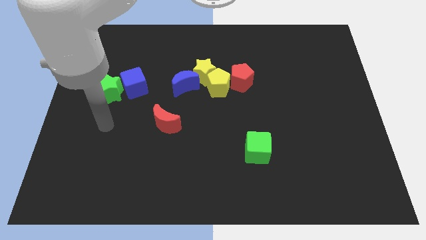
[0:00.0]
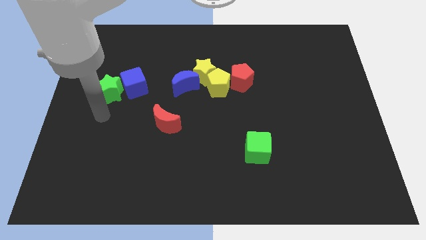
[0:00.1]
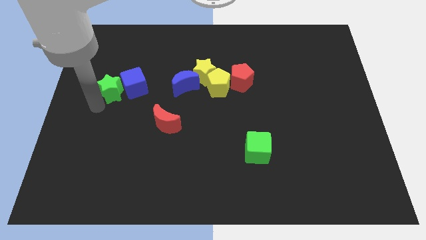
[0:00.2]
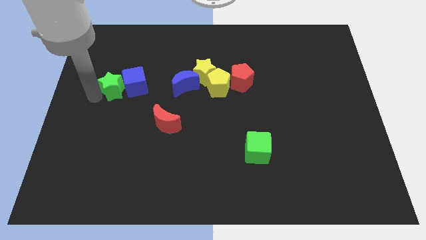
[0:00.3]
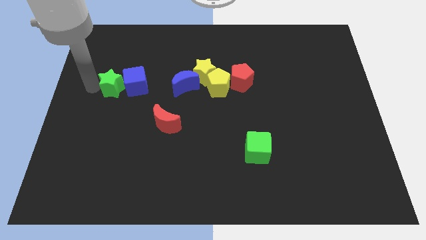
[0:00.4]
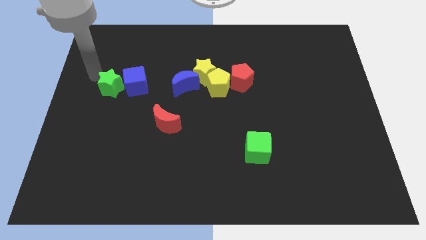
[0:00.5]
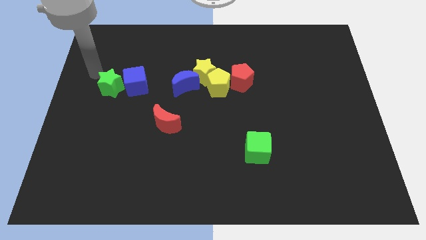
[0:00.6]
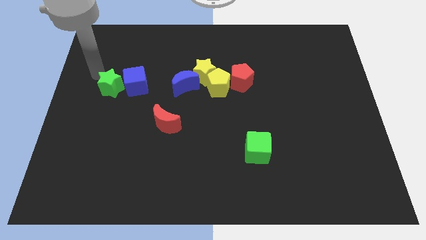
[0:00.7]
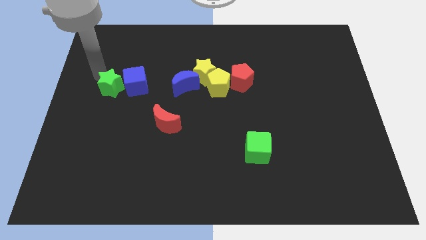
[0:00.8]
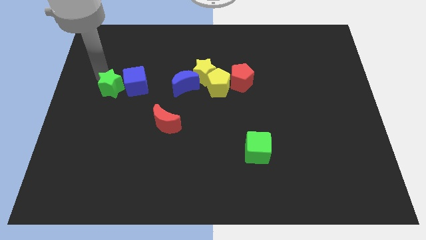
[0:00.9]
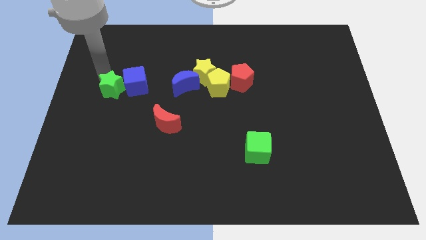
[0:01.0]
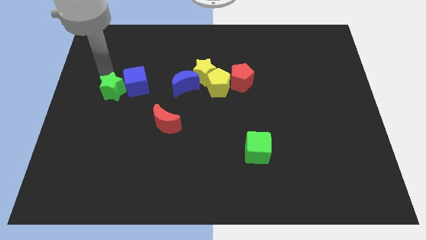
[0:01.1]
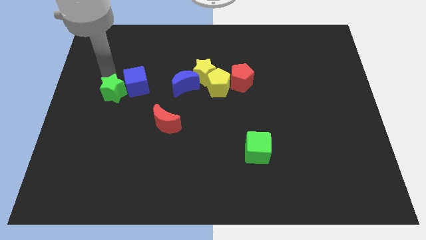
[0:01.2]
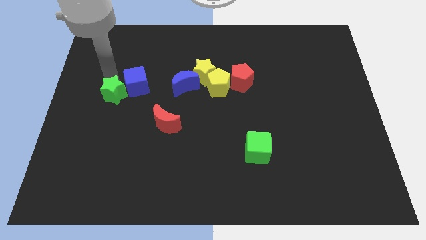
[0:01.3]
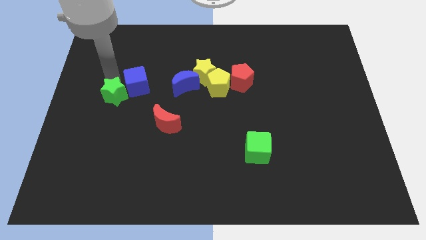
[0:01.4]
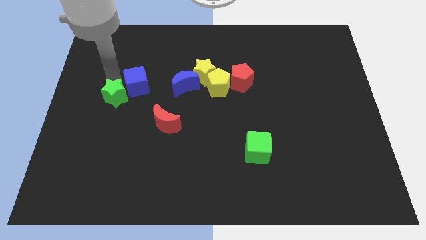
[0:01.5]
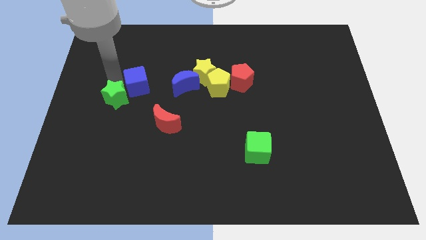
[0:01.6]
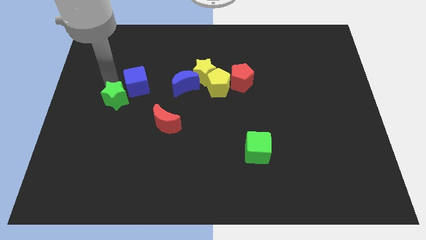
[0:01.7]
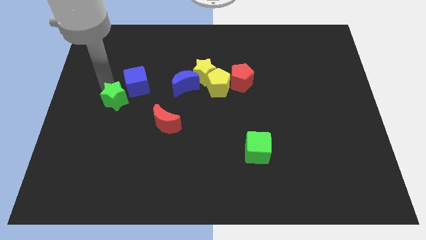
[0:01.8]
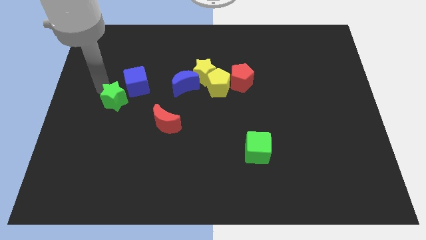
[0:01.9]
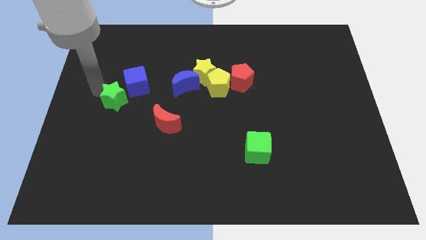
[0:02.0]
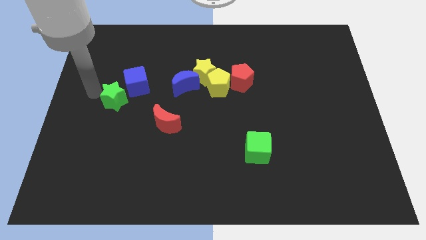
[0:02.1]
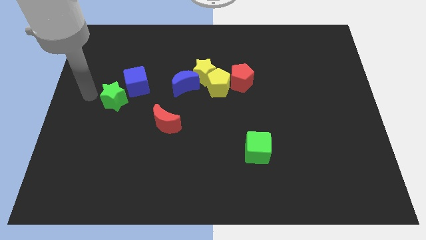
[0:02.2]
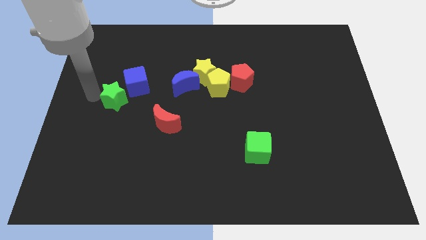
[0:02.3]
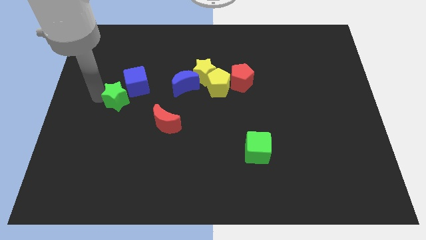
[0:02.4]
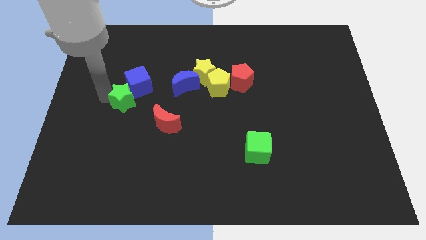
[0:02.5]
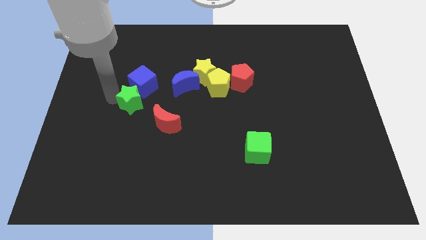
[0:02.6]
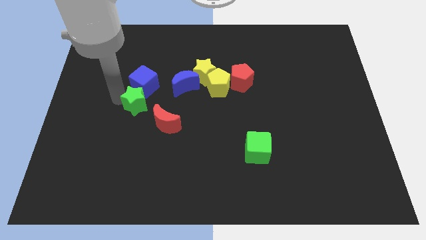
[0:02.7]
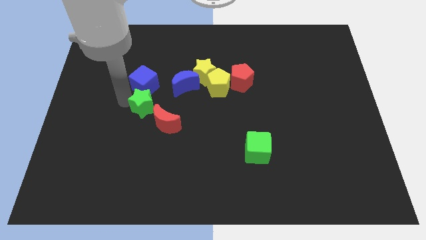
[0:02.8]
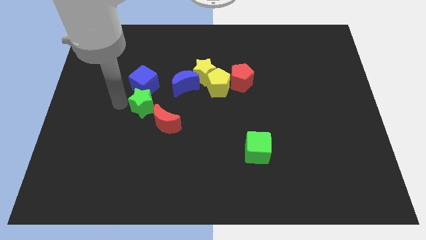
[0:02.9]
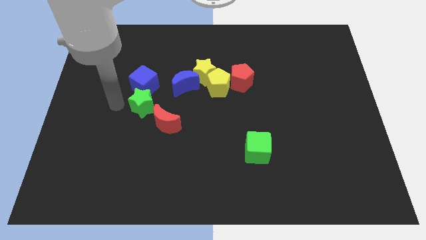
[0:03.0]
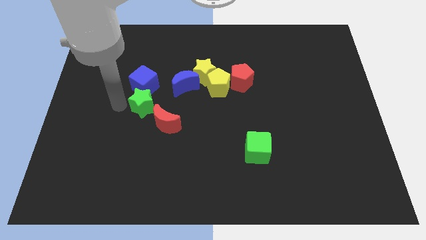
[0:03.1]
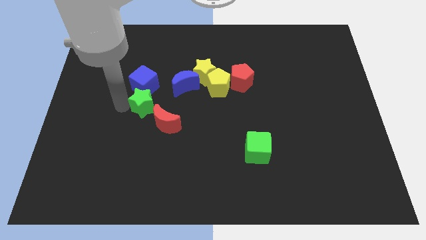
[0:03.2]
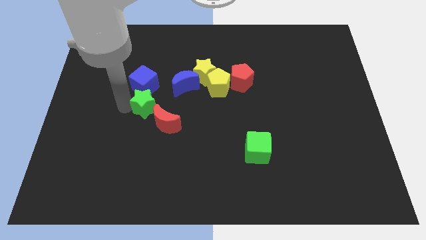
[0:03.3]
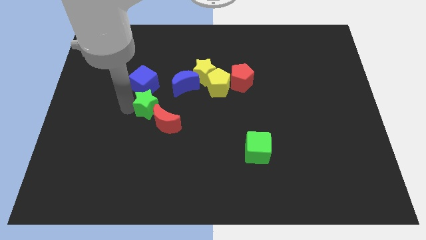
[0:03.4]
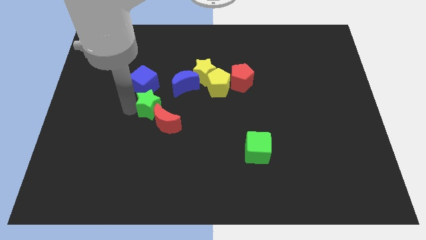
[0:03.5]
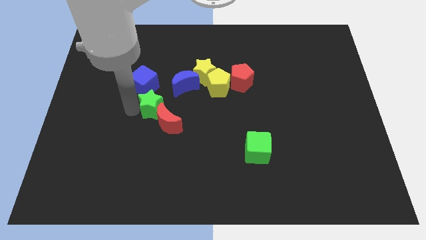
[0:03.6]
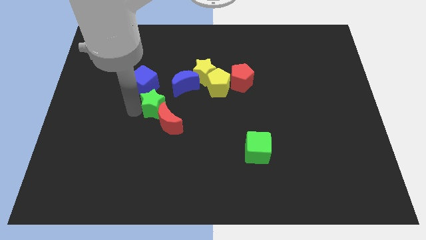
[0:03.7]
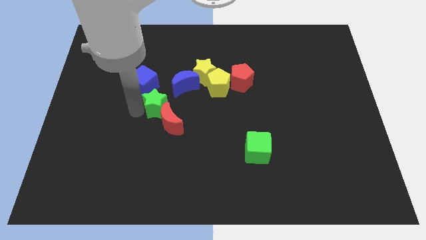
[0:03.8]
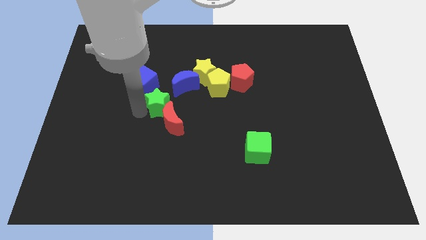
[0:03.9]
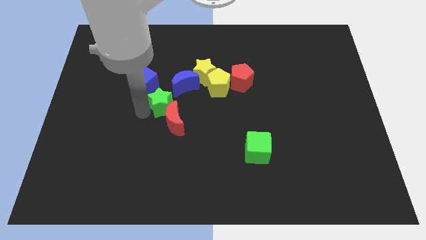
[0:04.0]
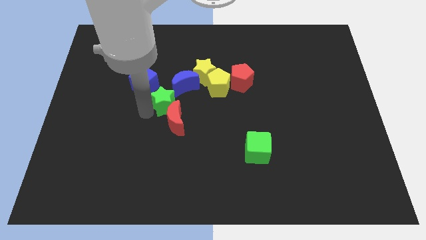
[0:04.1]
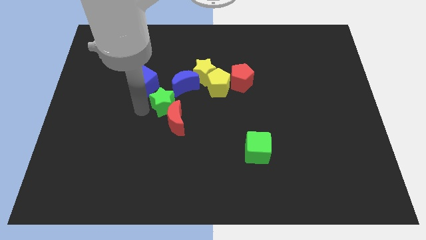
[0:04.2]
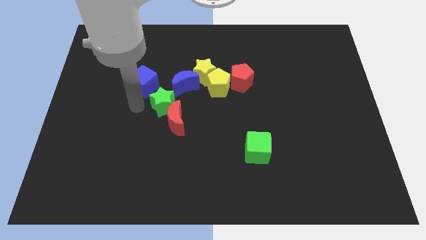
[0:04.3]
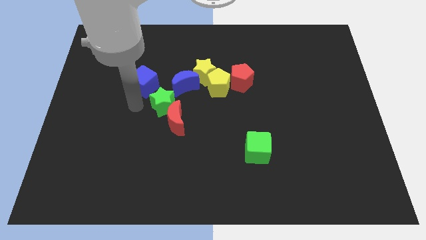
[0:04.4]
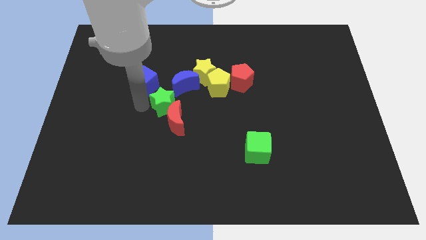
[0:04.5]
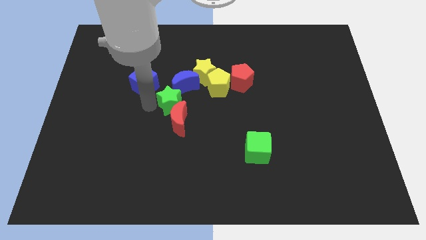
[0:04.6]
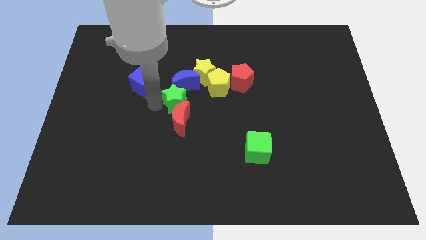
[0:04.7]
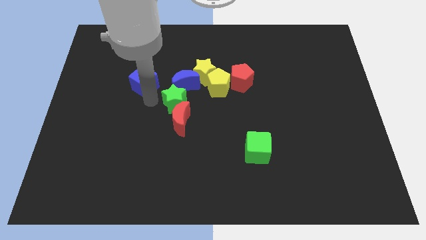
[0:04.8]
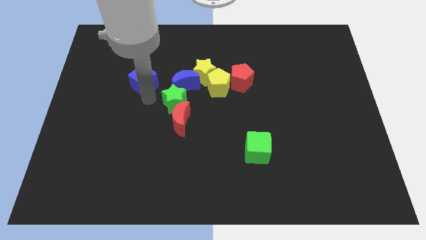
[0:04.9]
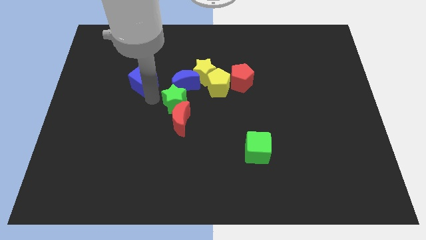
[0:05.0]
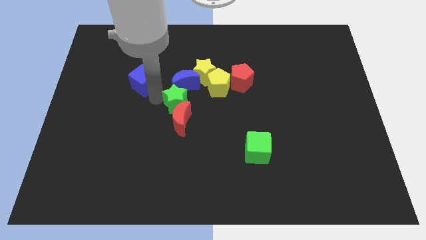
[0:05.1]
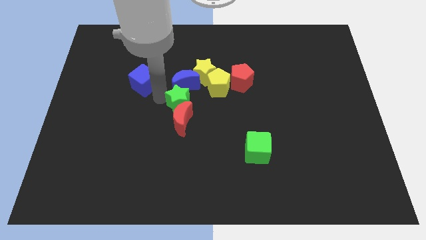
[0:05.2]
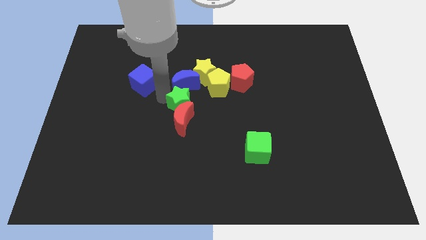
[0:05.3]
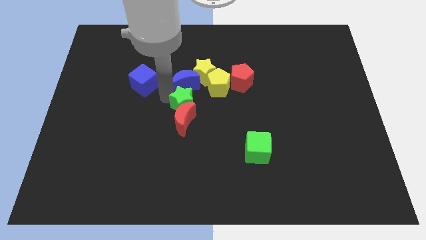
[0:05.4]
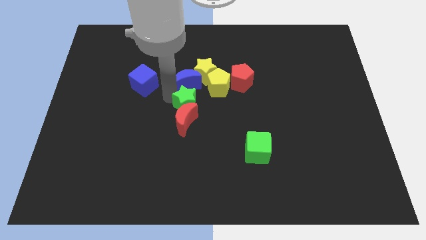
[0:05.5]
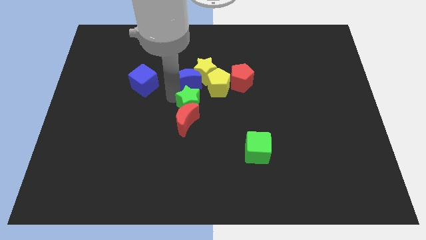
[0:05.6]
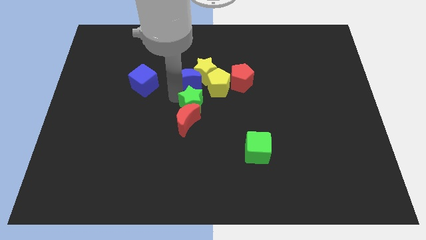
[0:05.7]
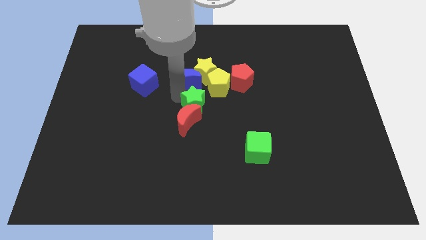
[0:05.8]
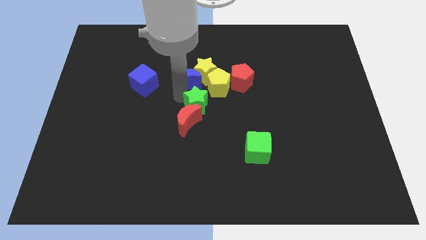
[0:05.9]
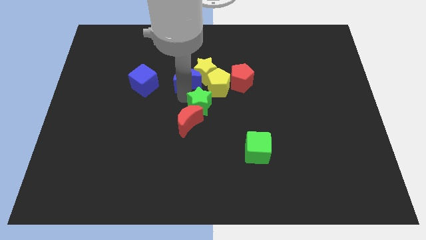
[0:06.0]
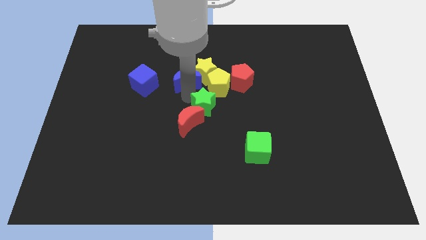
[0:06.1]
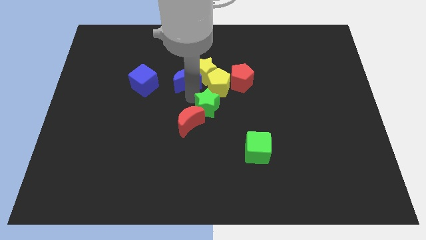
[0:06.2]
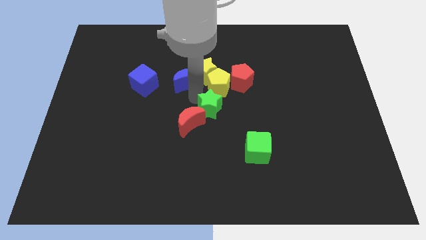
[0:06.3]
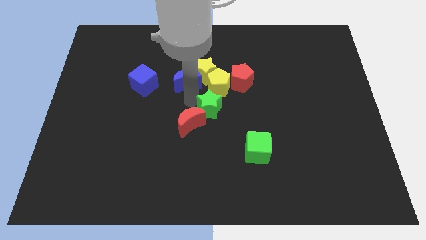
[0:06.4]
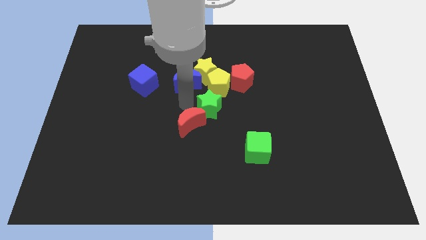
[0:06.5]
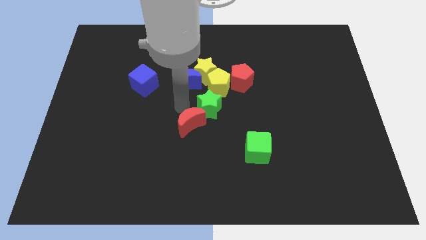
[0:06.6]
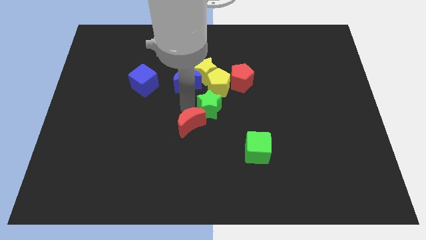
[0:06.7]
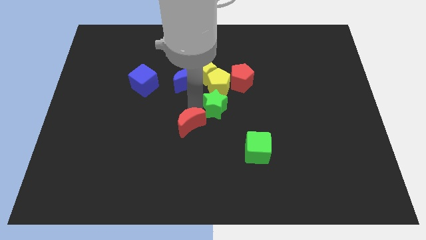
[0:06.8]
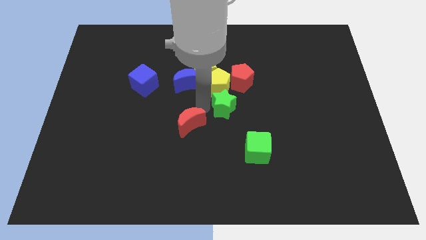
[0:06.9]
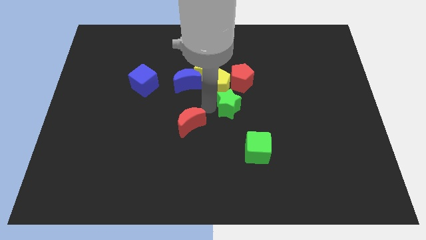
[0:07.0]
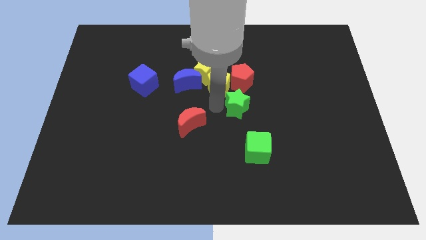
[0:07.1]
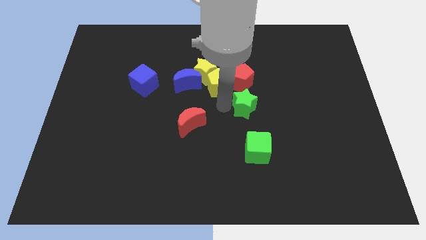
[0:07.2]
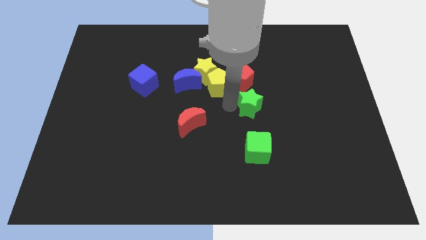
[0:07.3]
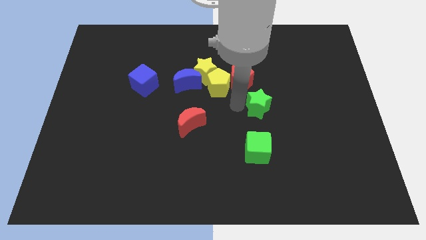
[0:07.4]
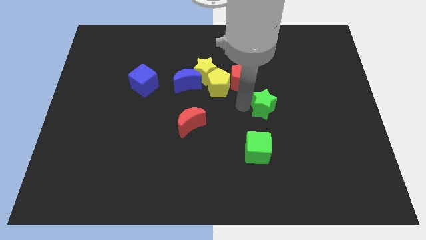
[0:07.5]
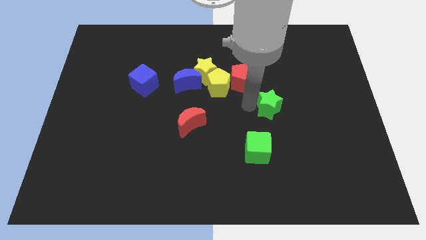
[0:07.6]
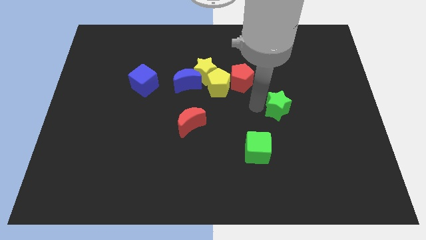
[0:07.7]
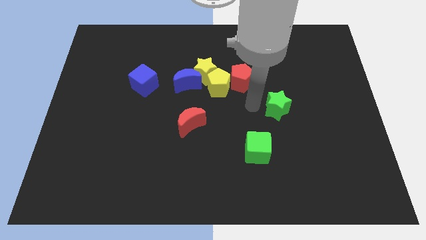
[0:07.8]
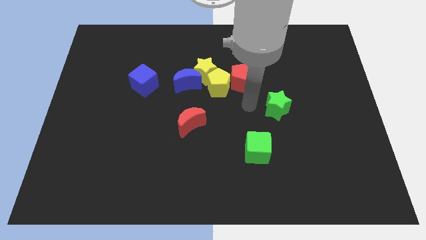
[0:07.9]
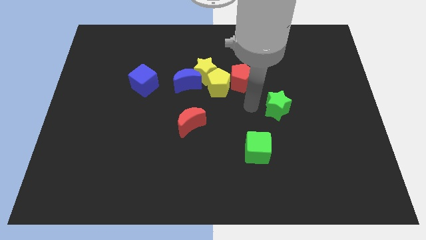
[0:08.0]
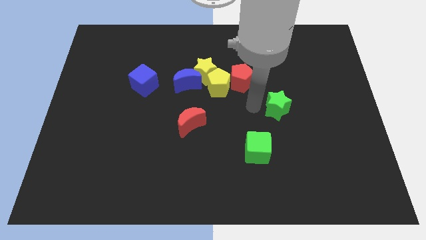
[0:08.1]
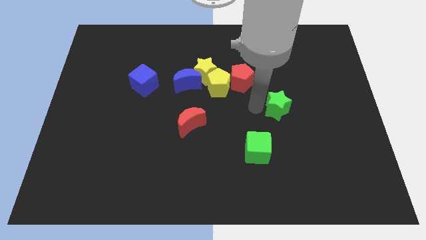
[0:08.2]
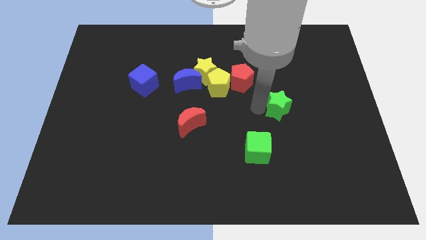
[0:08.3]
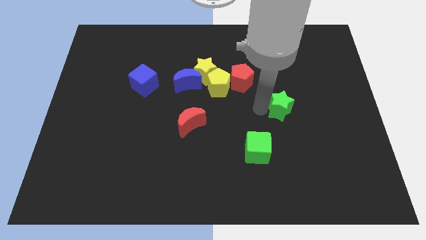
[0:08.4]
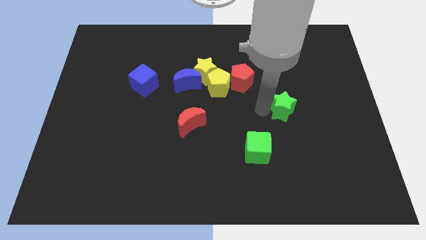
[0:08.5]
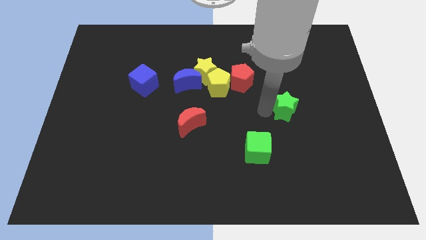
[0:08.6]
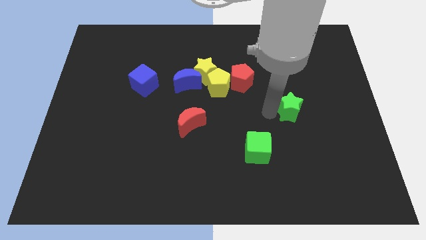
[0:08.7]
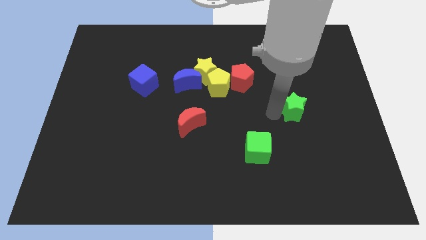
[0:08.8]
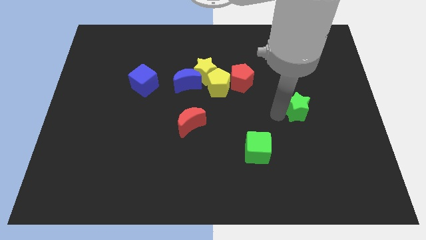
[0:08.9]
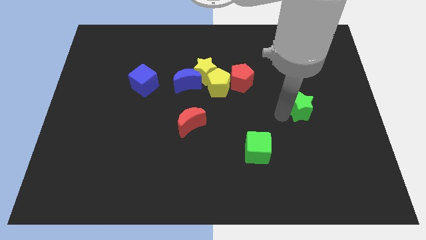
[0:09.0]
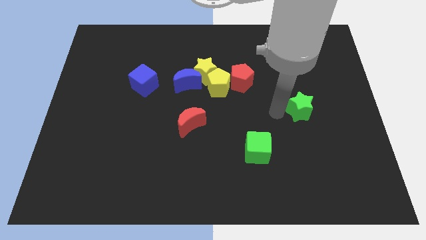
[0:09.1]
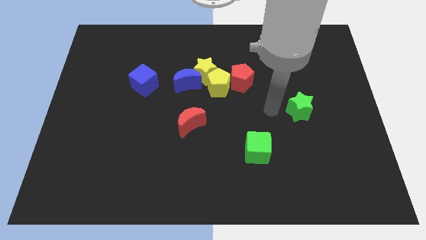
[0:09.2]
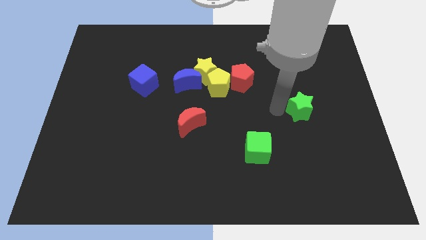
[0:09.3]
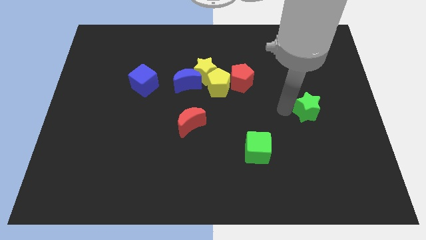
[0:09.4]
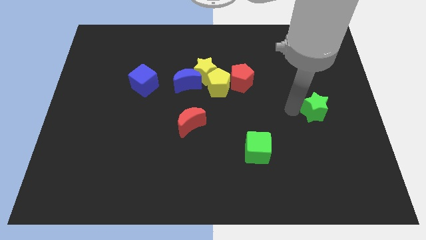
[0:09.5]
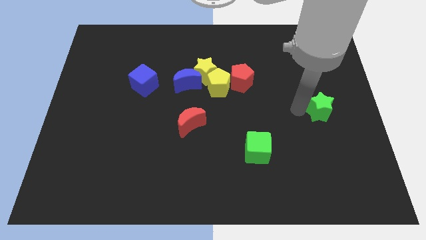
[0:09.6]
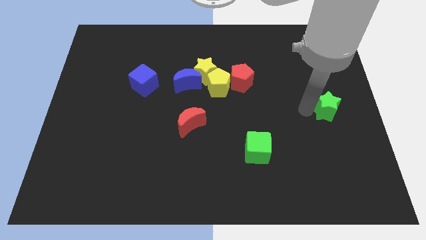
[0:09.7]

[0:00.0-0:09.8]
move the green star to the right side of the board
